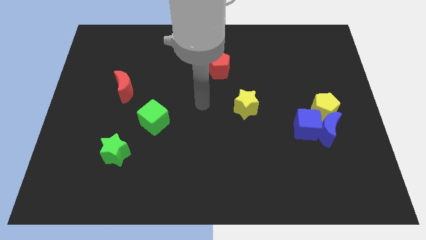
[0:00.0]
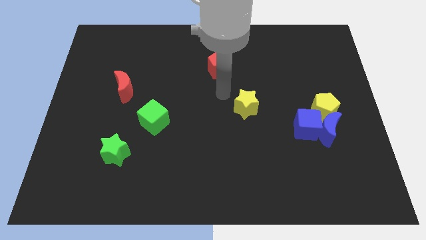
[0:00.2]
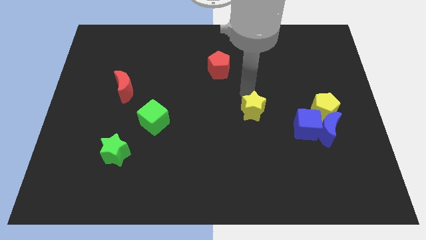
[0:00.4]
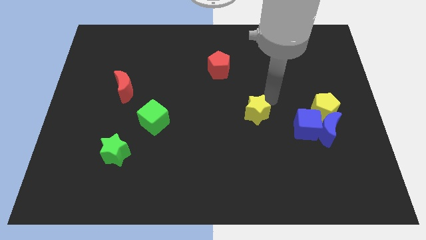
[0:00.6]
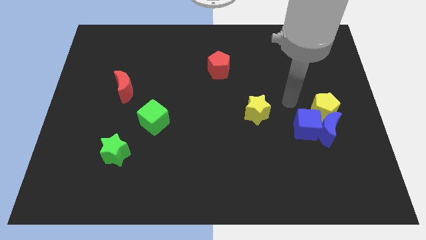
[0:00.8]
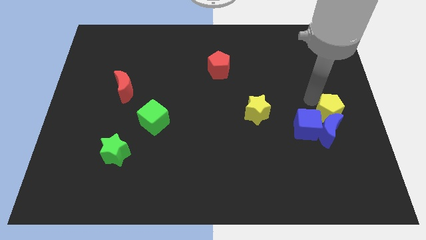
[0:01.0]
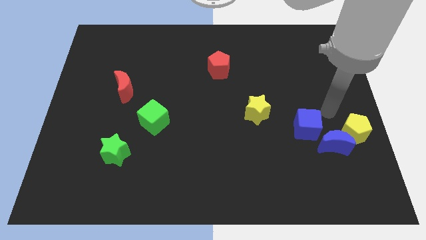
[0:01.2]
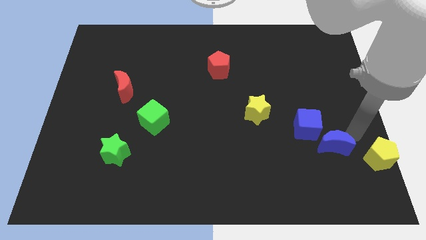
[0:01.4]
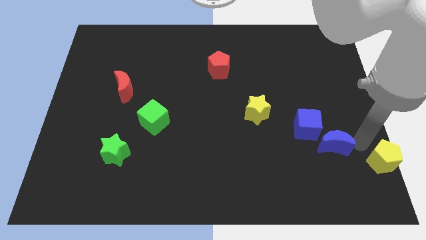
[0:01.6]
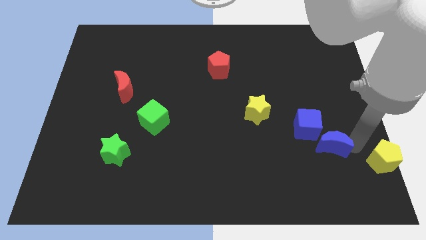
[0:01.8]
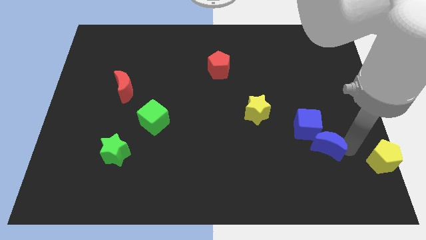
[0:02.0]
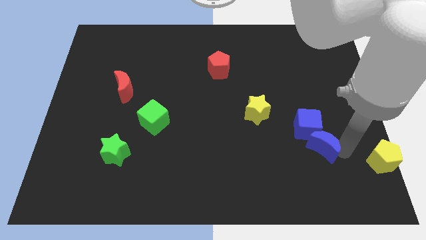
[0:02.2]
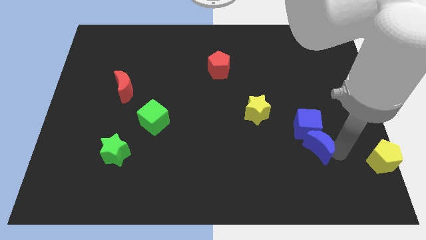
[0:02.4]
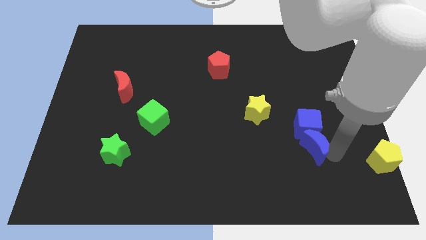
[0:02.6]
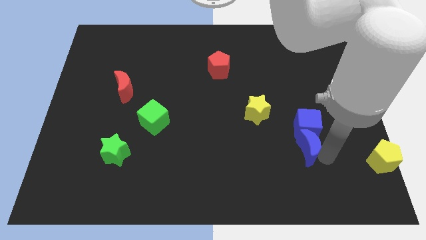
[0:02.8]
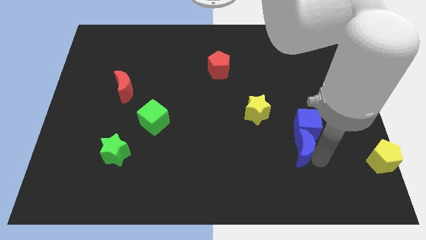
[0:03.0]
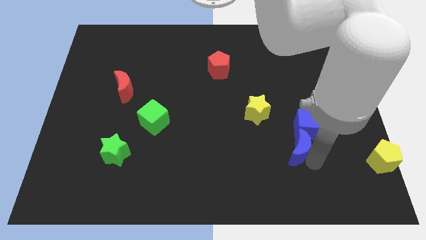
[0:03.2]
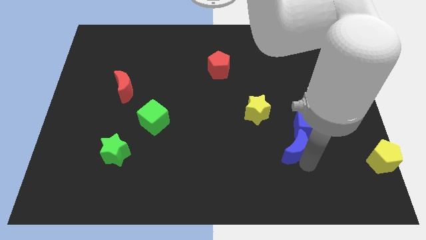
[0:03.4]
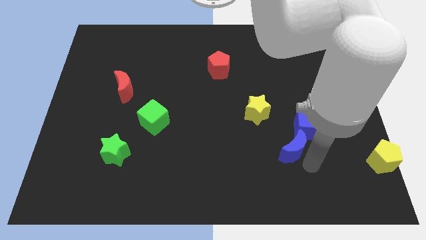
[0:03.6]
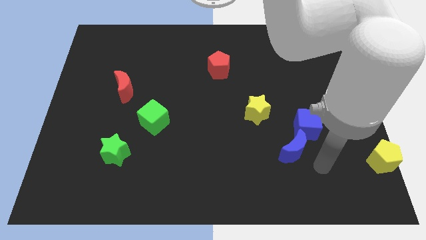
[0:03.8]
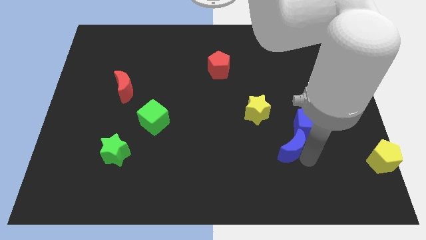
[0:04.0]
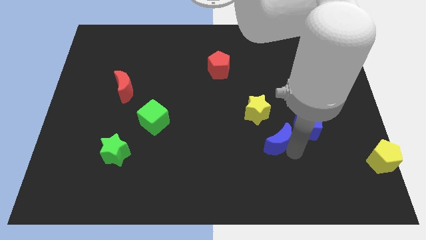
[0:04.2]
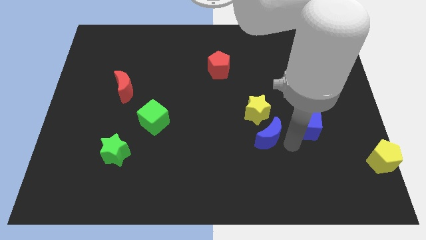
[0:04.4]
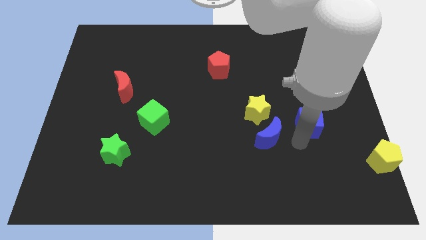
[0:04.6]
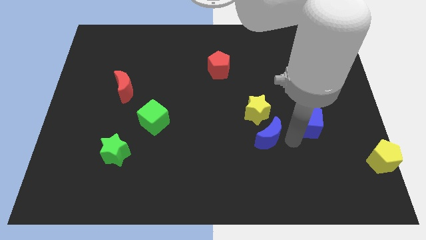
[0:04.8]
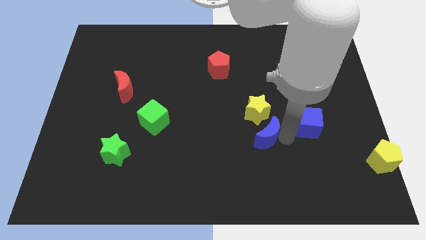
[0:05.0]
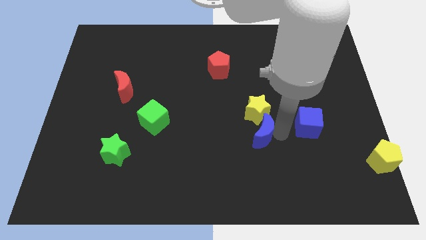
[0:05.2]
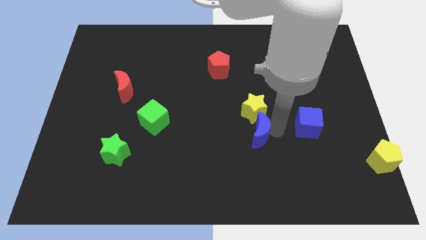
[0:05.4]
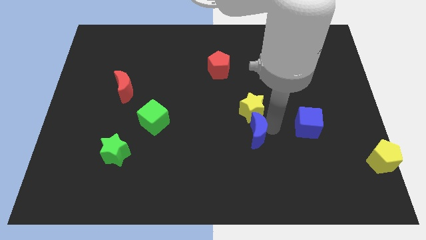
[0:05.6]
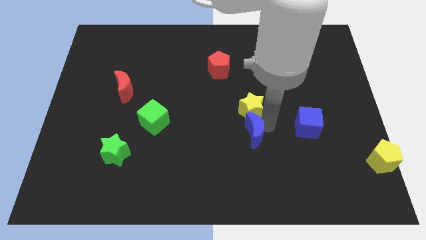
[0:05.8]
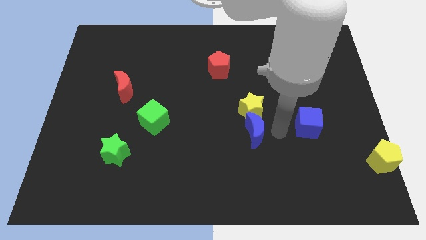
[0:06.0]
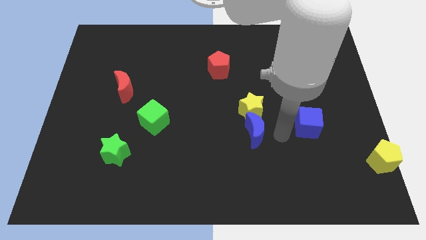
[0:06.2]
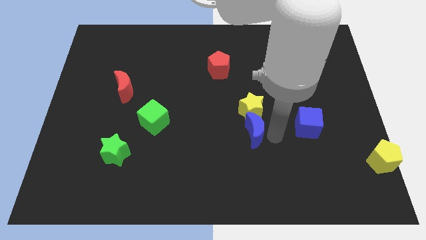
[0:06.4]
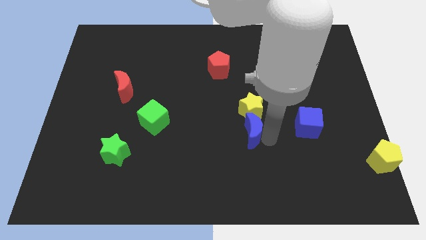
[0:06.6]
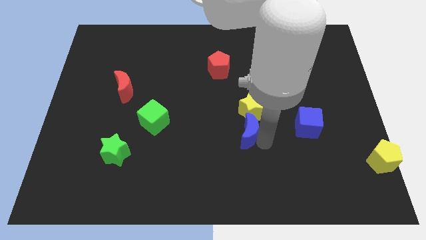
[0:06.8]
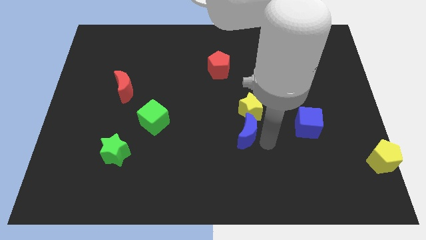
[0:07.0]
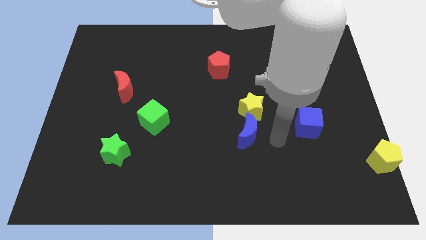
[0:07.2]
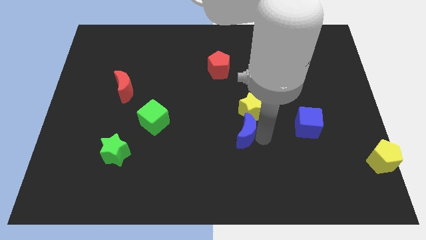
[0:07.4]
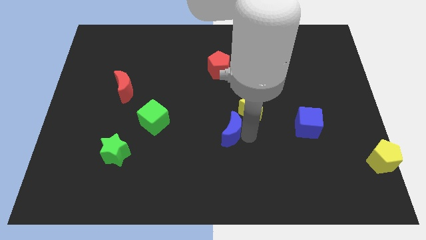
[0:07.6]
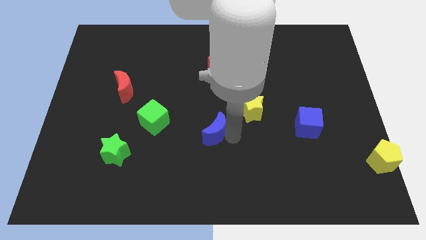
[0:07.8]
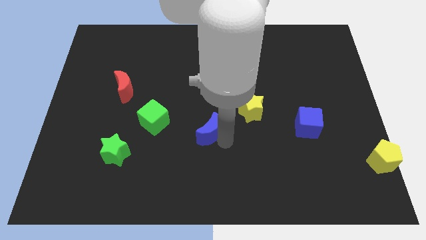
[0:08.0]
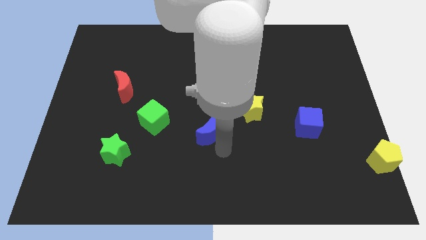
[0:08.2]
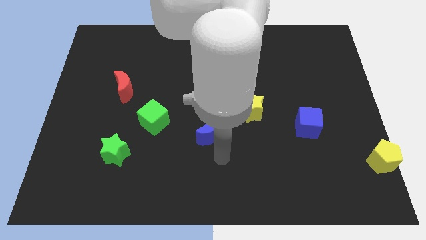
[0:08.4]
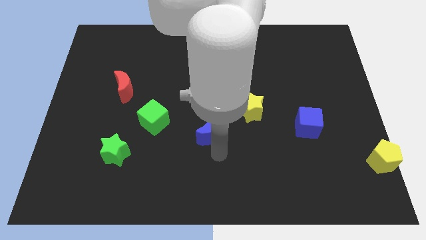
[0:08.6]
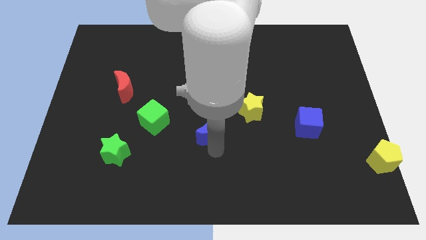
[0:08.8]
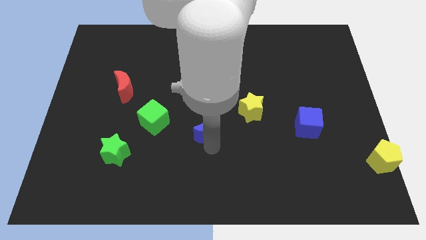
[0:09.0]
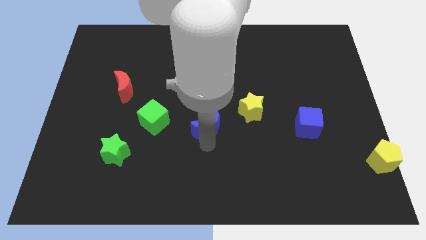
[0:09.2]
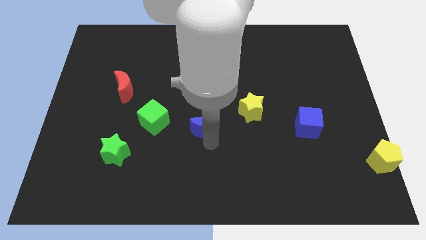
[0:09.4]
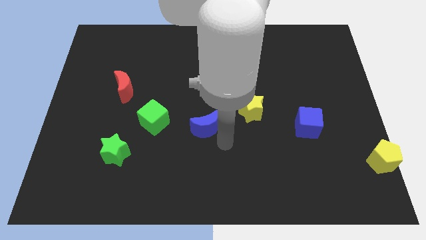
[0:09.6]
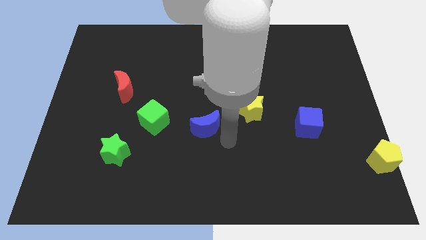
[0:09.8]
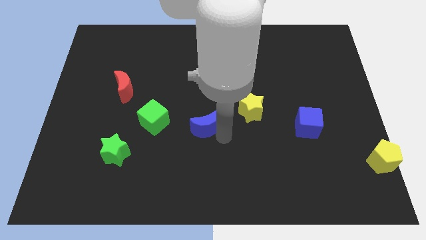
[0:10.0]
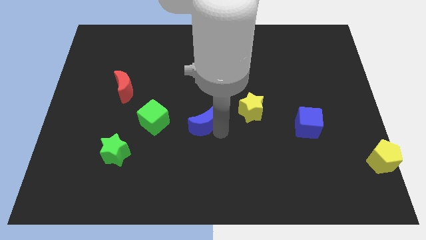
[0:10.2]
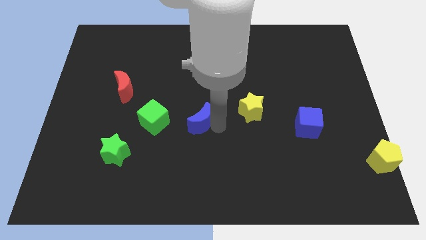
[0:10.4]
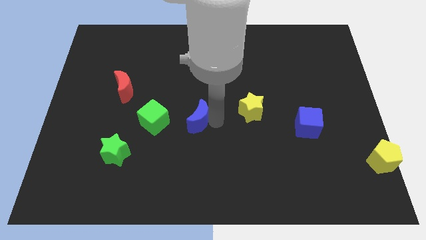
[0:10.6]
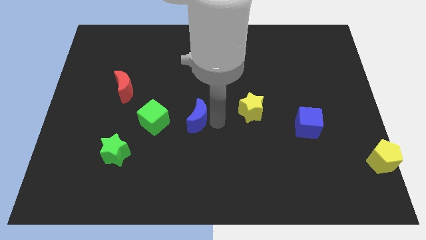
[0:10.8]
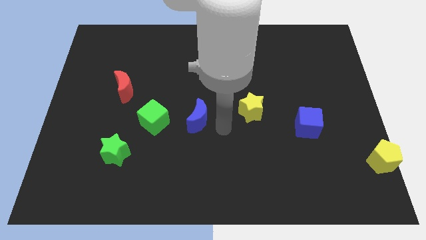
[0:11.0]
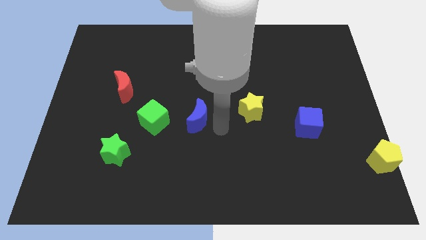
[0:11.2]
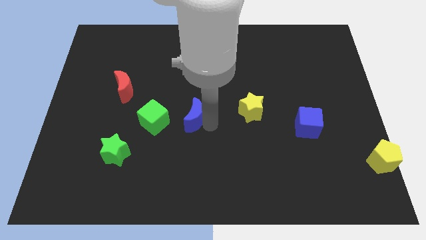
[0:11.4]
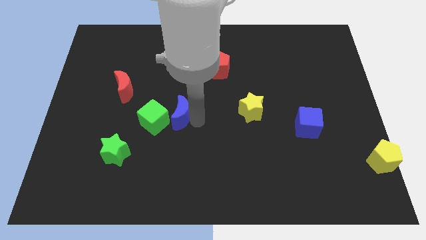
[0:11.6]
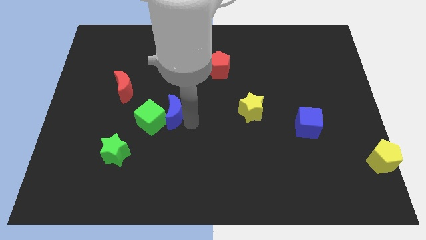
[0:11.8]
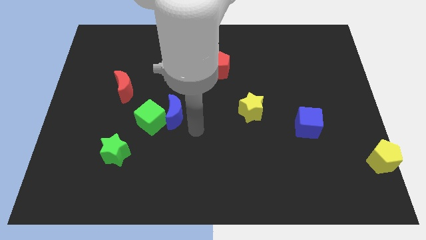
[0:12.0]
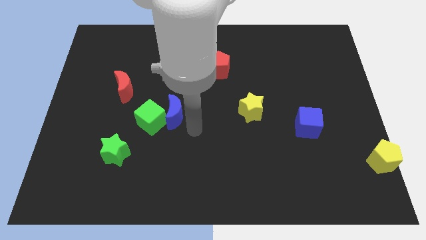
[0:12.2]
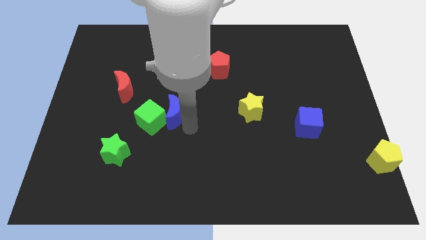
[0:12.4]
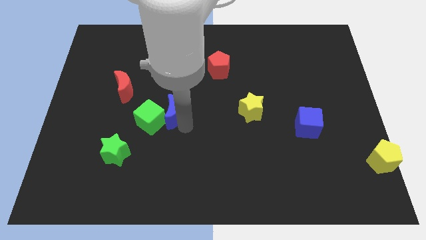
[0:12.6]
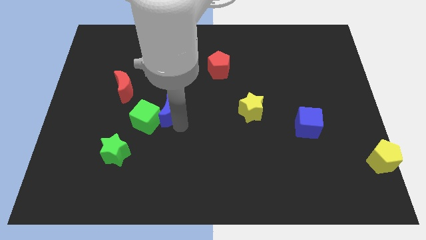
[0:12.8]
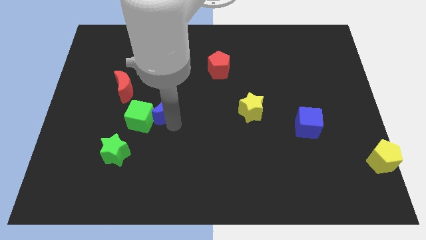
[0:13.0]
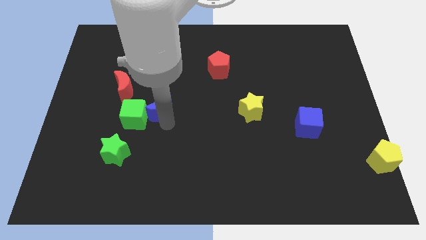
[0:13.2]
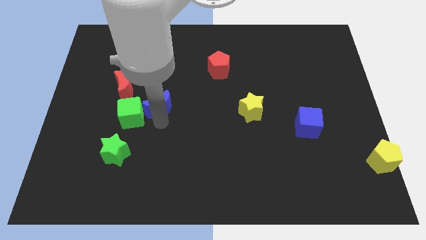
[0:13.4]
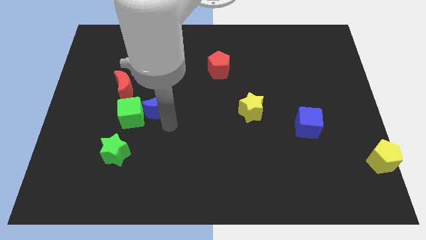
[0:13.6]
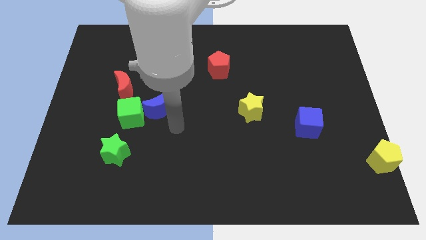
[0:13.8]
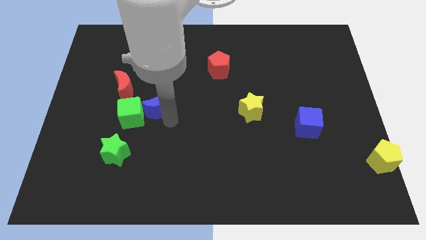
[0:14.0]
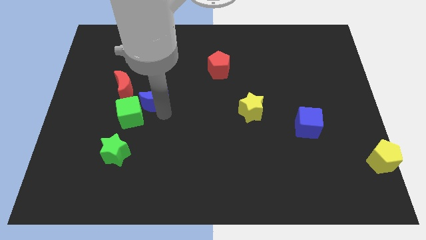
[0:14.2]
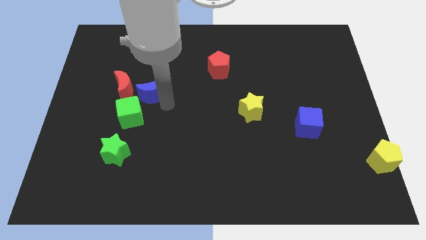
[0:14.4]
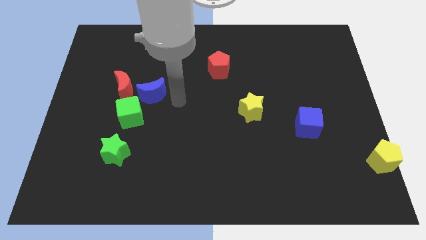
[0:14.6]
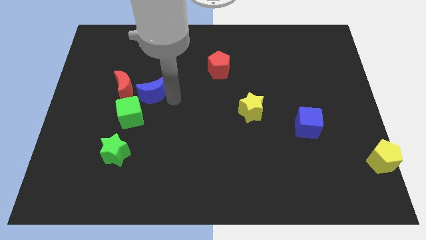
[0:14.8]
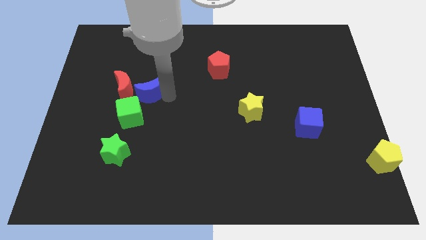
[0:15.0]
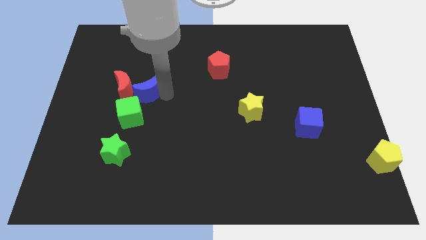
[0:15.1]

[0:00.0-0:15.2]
push the blue moon towards the red moon

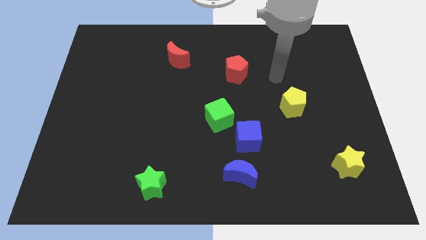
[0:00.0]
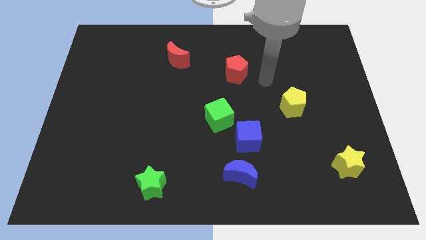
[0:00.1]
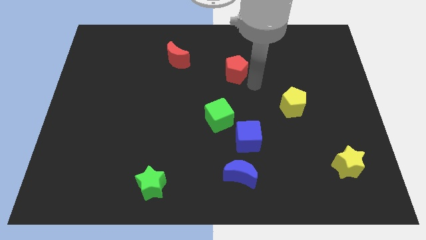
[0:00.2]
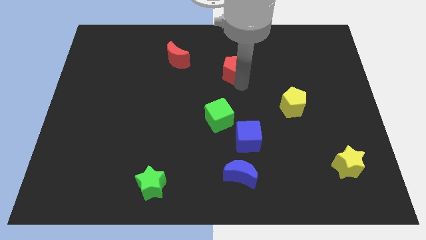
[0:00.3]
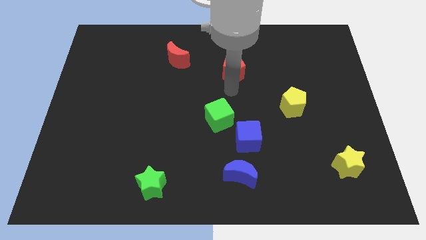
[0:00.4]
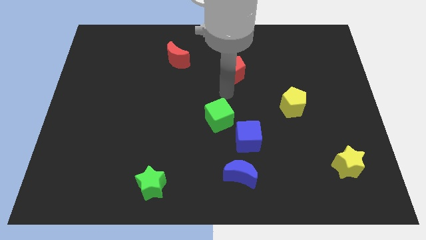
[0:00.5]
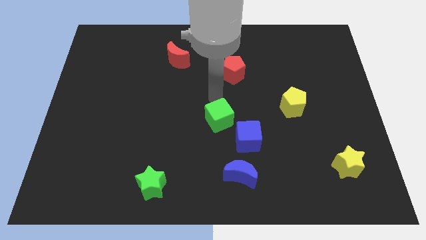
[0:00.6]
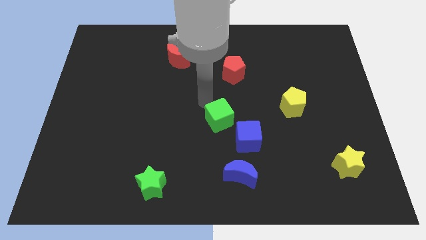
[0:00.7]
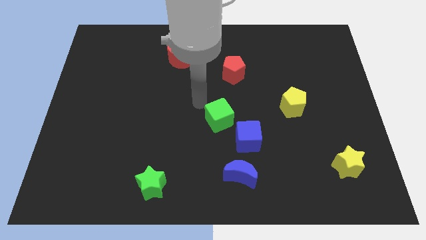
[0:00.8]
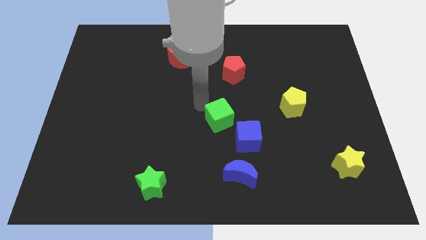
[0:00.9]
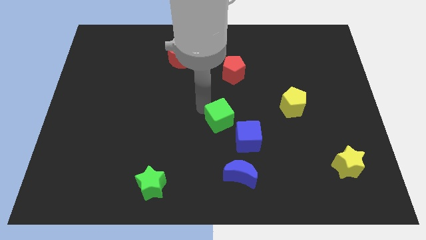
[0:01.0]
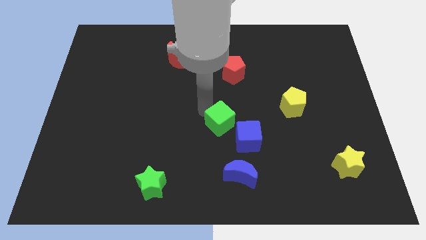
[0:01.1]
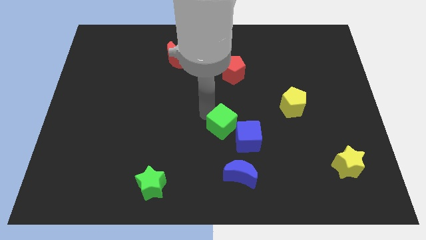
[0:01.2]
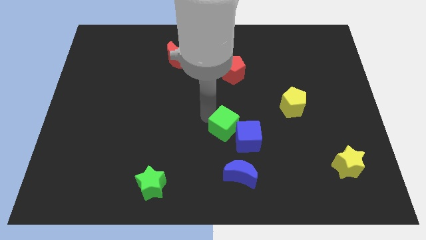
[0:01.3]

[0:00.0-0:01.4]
push the green cube next to the blue cube
